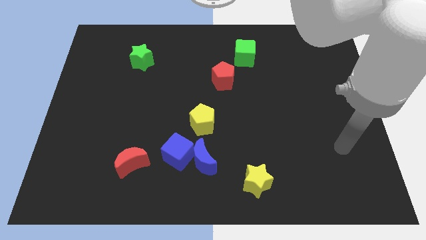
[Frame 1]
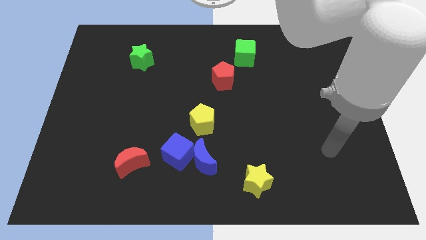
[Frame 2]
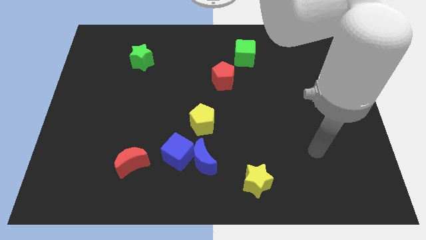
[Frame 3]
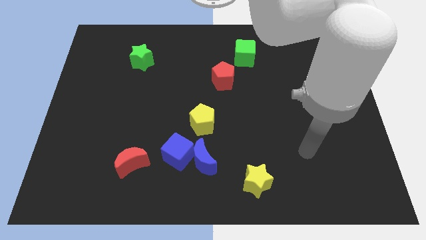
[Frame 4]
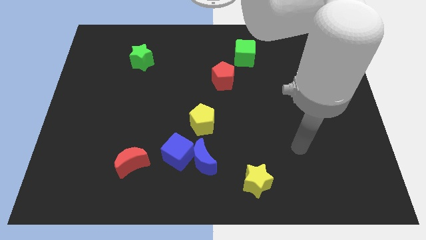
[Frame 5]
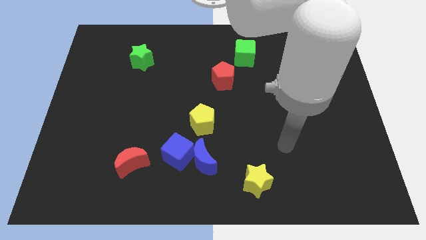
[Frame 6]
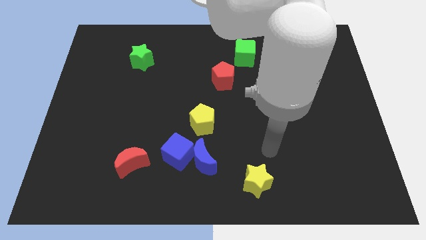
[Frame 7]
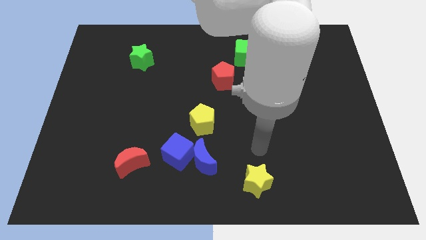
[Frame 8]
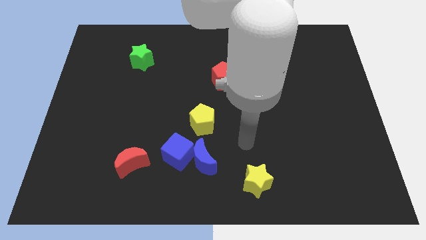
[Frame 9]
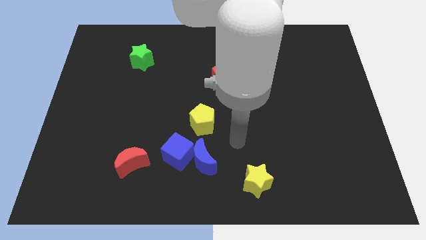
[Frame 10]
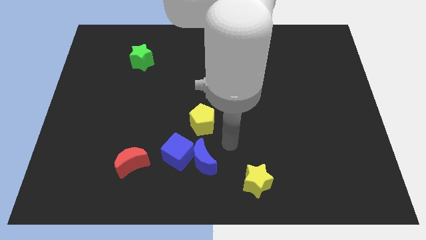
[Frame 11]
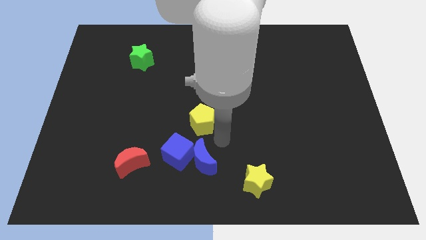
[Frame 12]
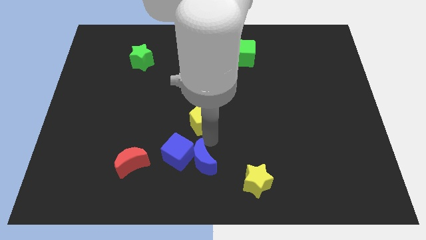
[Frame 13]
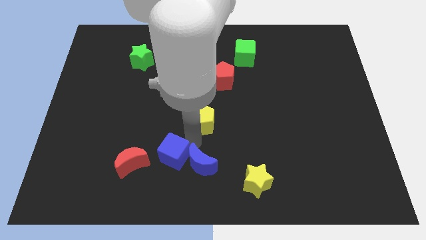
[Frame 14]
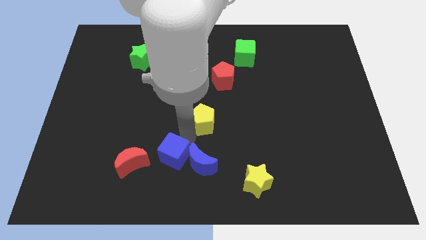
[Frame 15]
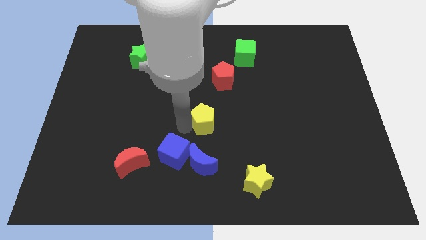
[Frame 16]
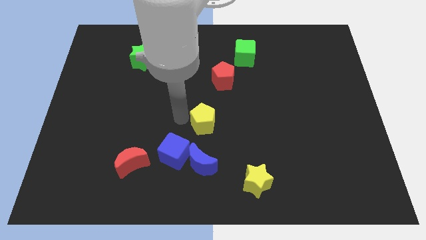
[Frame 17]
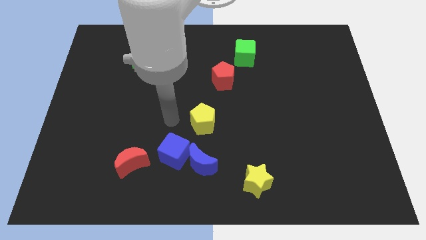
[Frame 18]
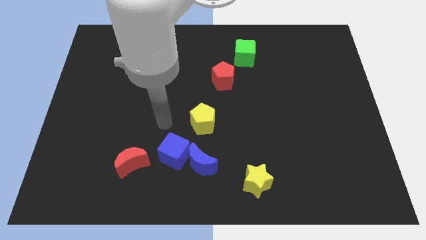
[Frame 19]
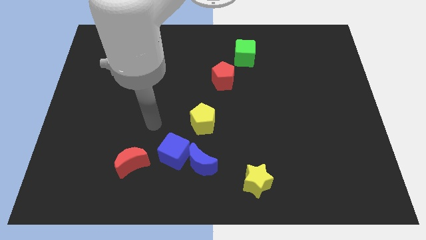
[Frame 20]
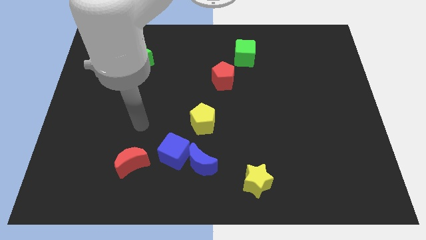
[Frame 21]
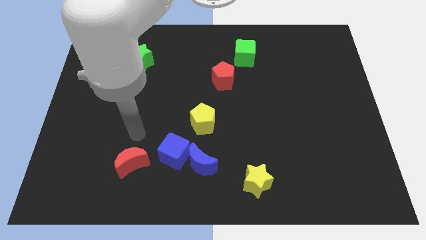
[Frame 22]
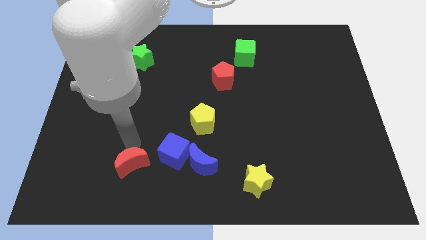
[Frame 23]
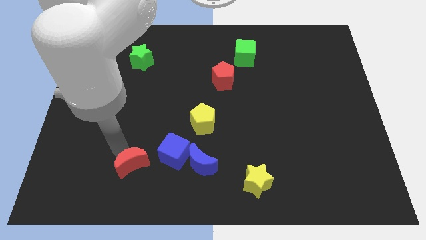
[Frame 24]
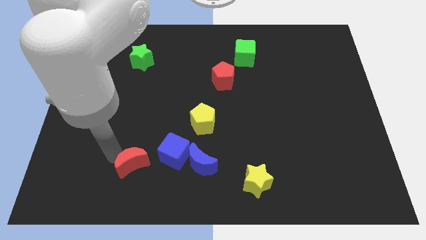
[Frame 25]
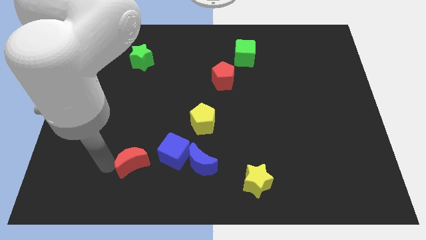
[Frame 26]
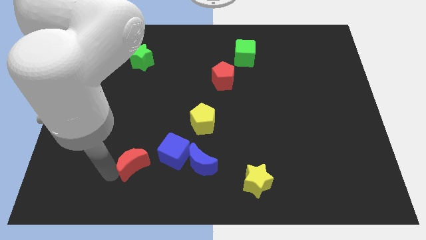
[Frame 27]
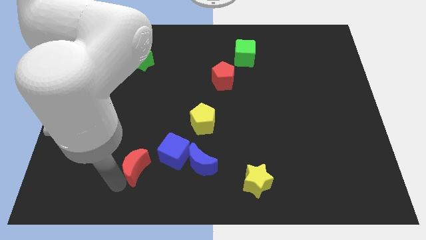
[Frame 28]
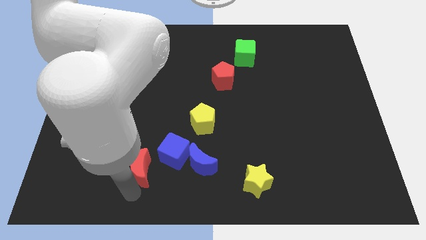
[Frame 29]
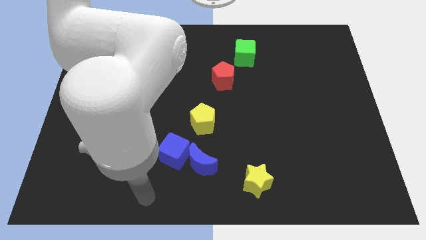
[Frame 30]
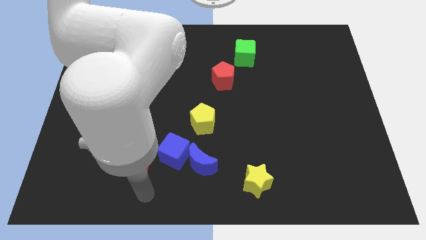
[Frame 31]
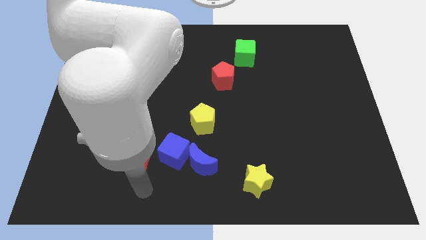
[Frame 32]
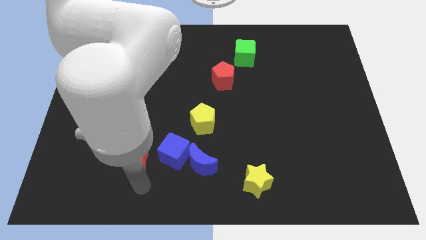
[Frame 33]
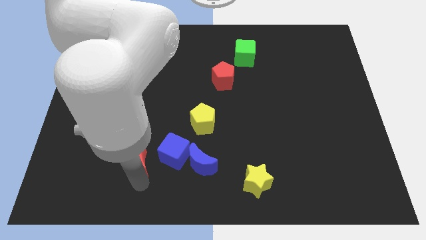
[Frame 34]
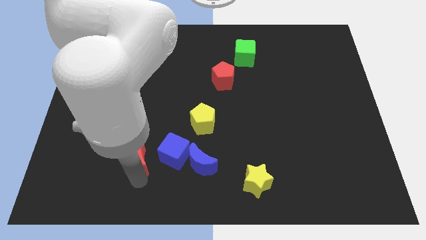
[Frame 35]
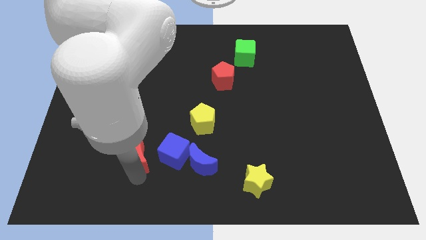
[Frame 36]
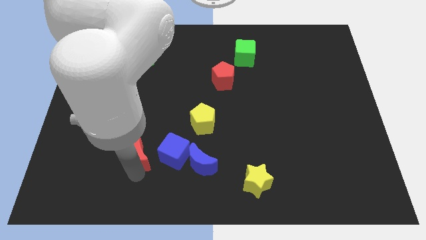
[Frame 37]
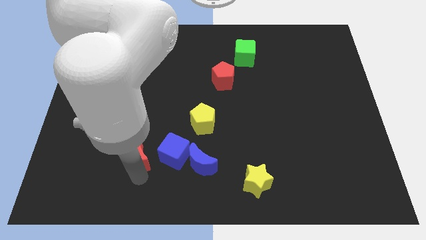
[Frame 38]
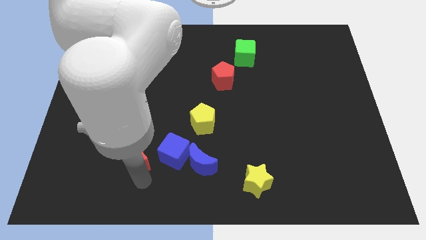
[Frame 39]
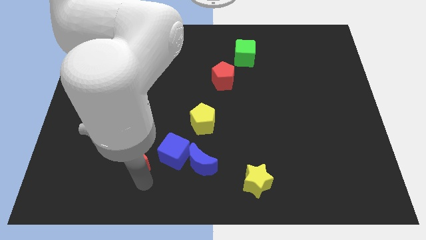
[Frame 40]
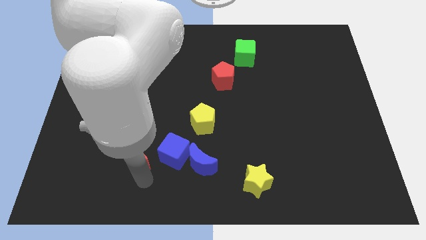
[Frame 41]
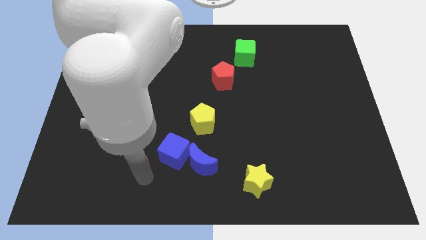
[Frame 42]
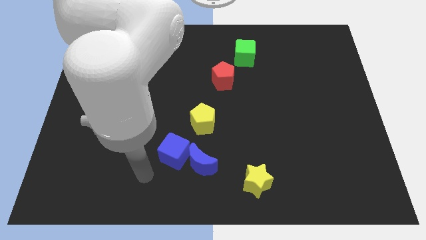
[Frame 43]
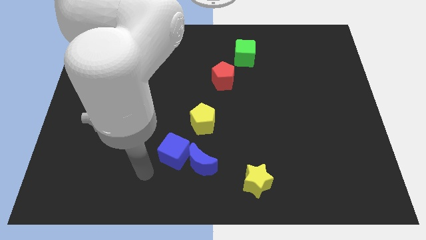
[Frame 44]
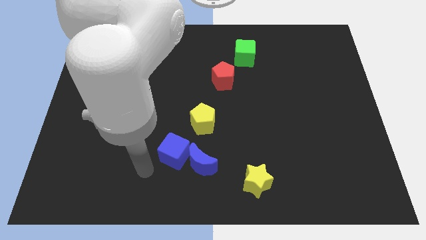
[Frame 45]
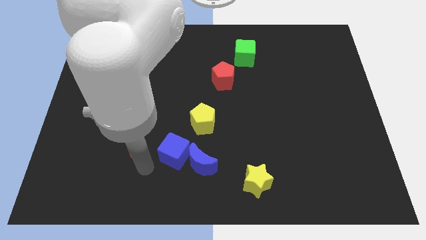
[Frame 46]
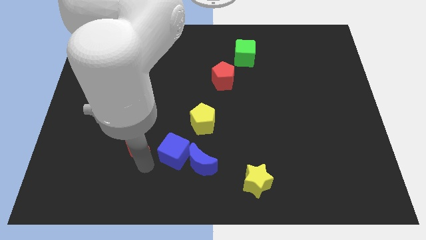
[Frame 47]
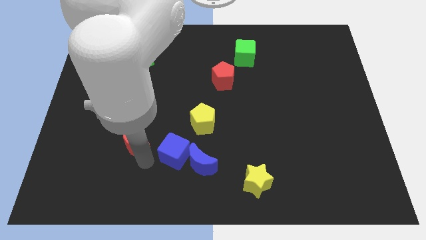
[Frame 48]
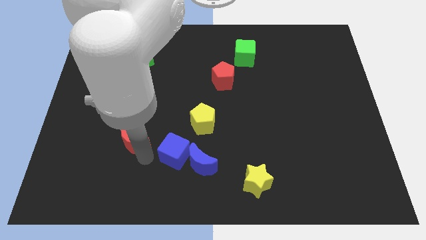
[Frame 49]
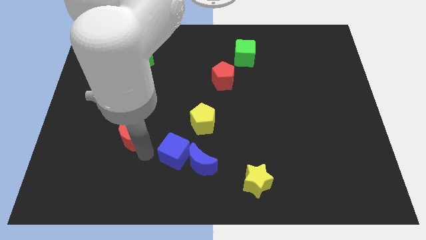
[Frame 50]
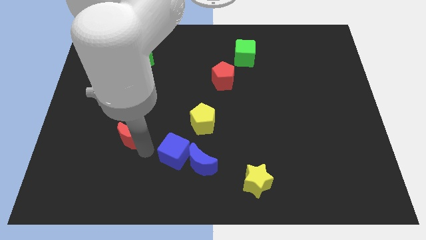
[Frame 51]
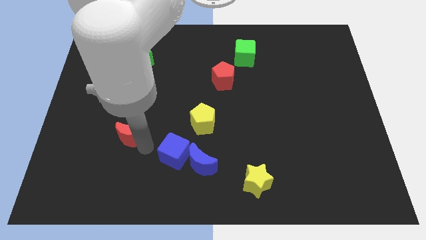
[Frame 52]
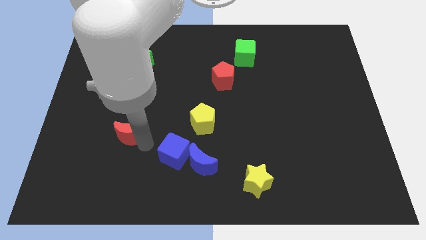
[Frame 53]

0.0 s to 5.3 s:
move the red moon a little bit up

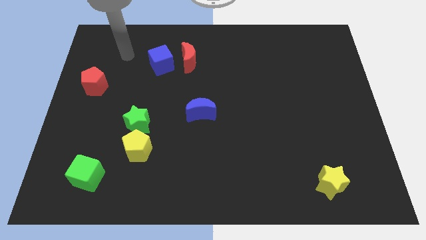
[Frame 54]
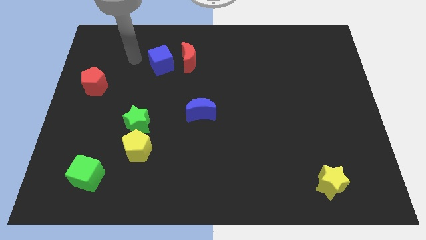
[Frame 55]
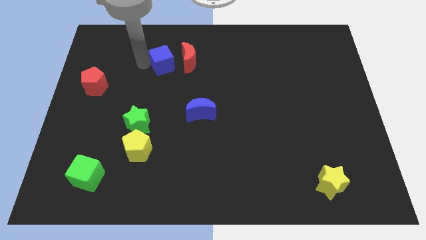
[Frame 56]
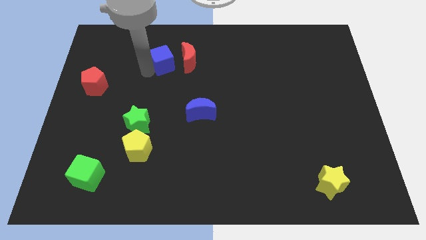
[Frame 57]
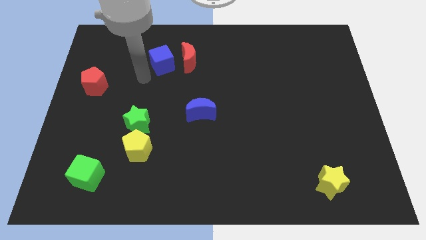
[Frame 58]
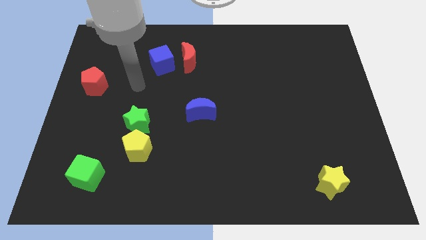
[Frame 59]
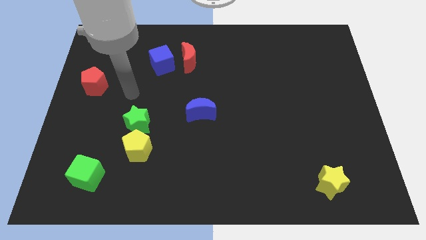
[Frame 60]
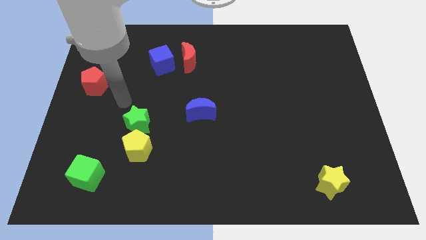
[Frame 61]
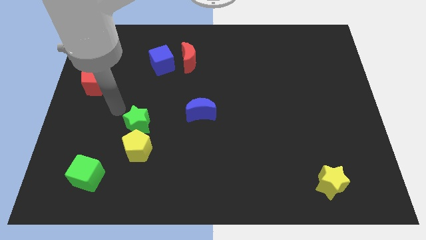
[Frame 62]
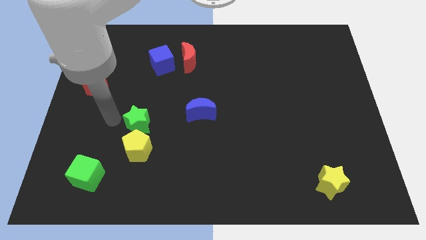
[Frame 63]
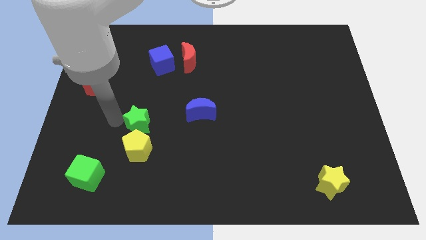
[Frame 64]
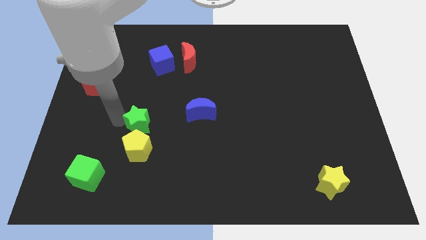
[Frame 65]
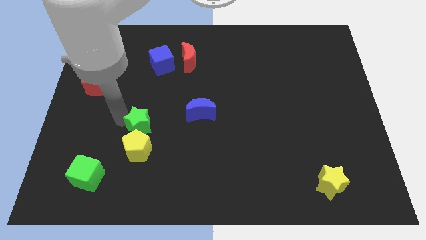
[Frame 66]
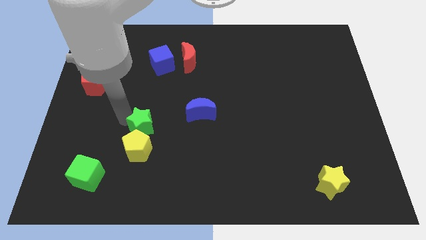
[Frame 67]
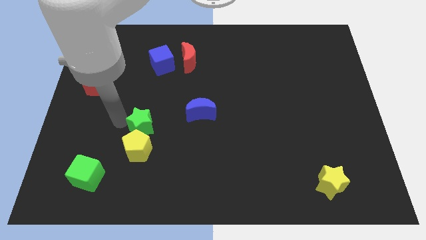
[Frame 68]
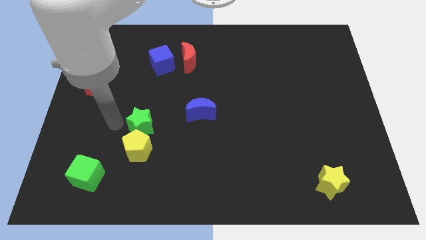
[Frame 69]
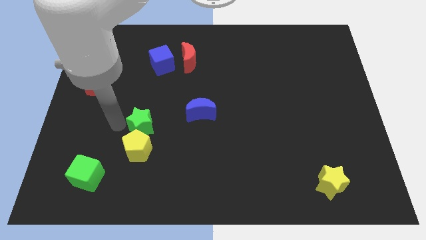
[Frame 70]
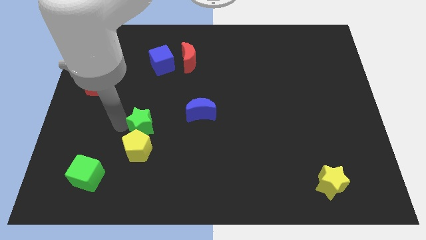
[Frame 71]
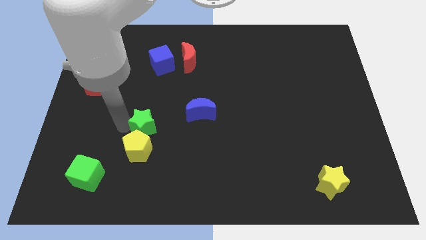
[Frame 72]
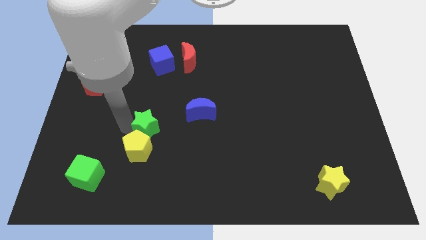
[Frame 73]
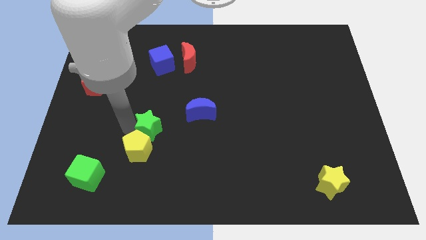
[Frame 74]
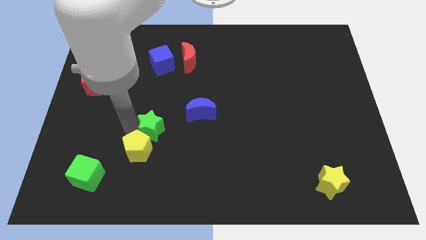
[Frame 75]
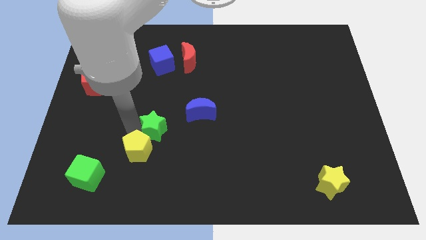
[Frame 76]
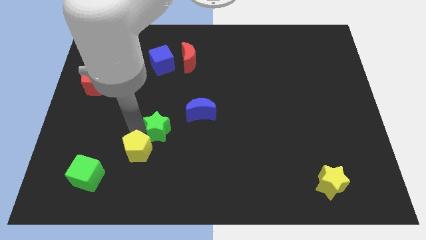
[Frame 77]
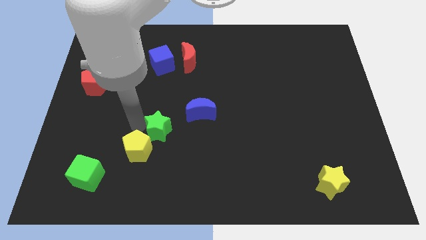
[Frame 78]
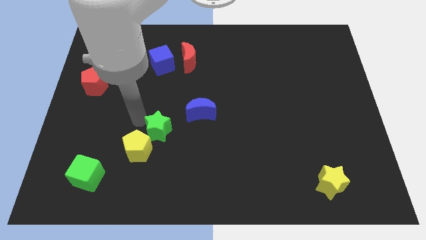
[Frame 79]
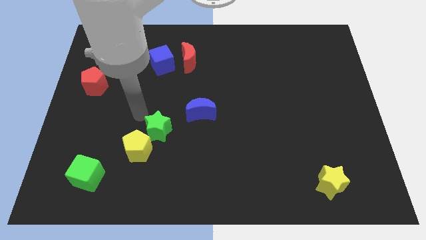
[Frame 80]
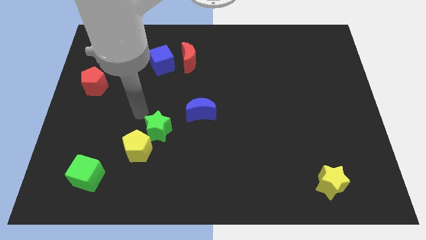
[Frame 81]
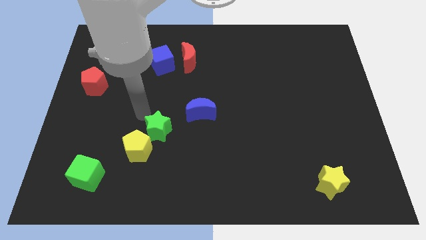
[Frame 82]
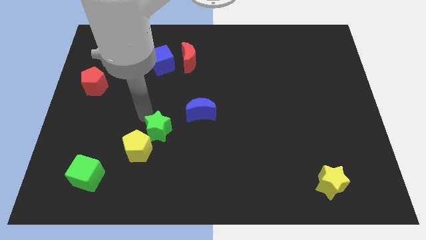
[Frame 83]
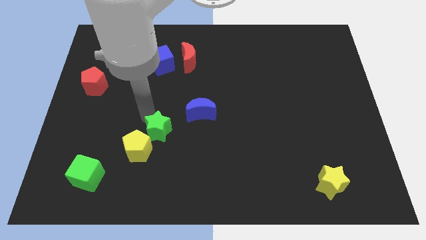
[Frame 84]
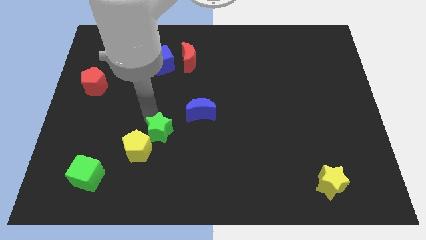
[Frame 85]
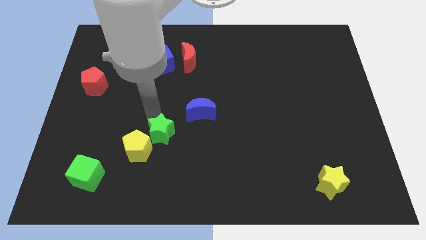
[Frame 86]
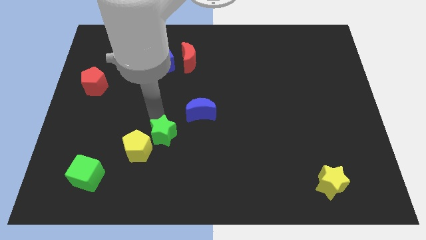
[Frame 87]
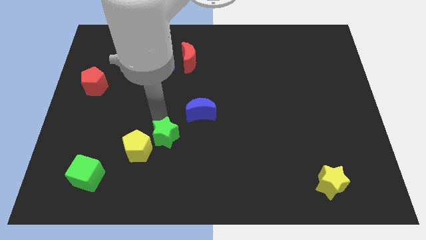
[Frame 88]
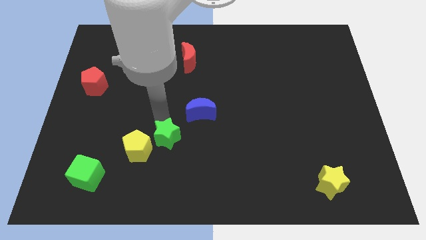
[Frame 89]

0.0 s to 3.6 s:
move the green star a little down and right diagonally
